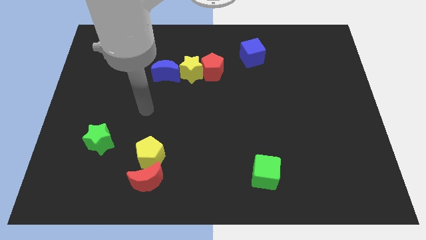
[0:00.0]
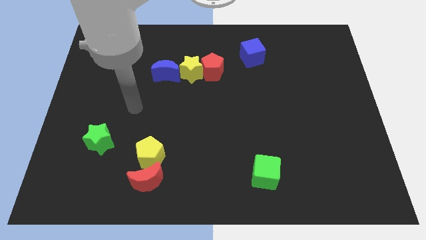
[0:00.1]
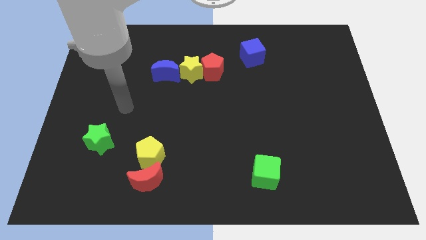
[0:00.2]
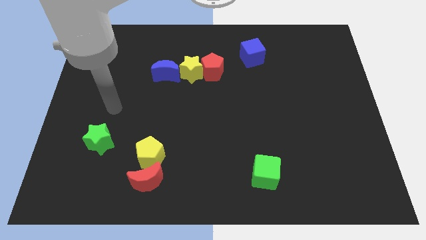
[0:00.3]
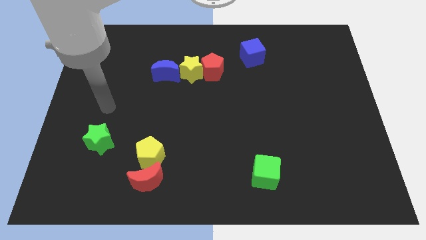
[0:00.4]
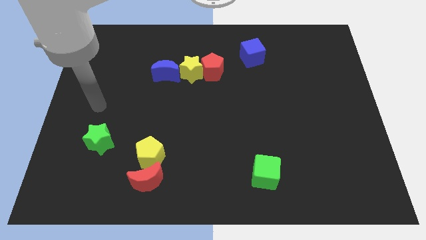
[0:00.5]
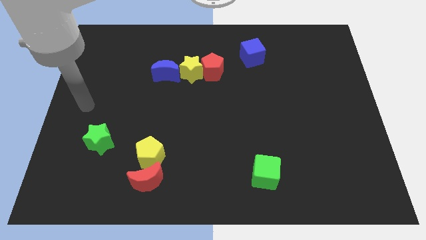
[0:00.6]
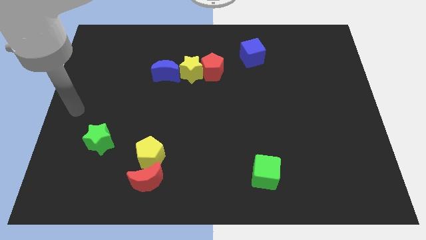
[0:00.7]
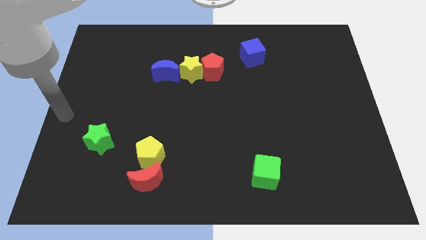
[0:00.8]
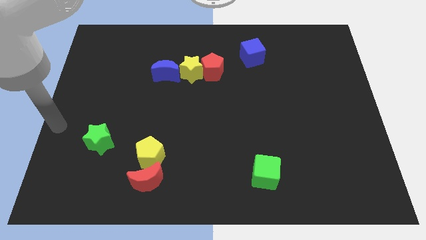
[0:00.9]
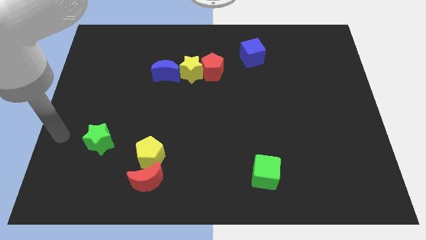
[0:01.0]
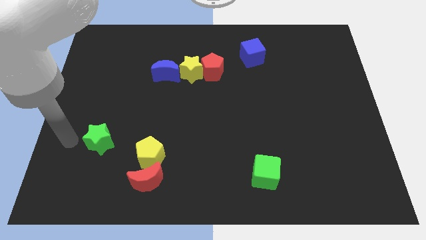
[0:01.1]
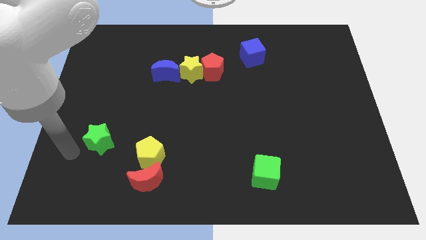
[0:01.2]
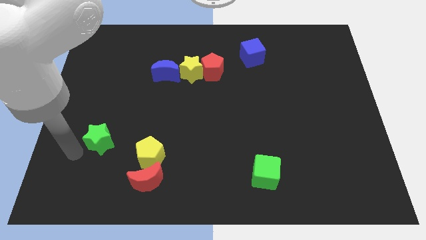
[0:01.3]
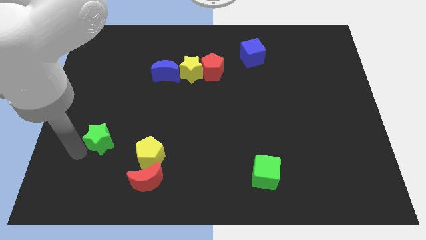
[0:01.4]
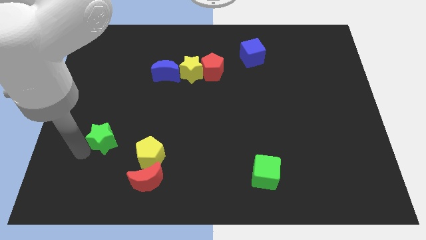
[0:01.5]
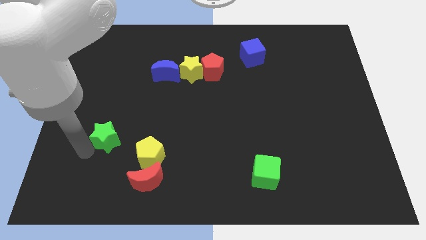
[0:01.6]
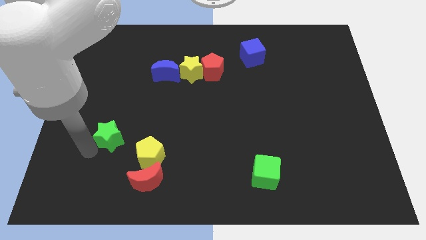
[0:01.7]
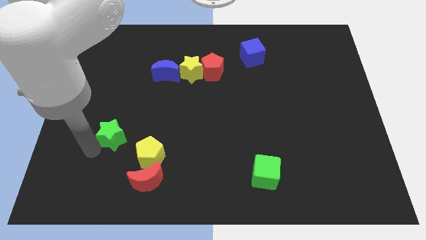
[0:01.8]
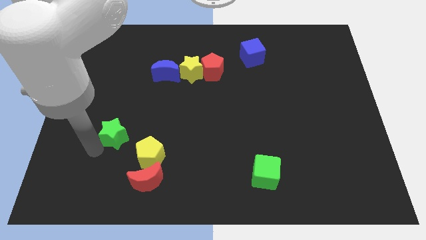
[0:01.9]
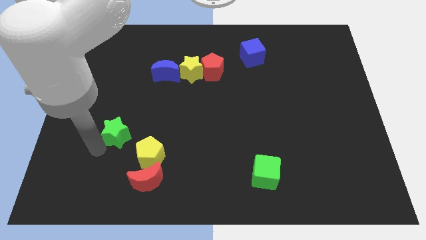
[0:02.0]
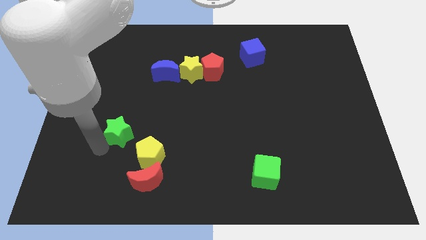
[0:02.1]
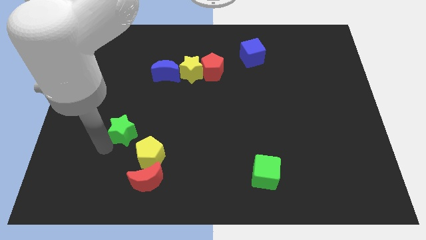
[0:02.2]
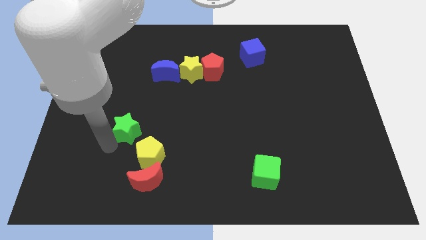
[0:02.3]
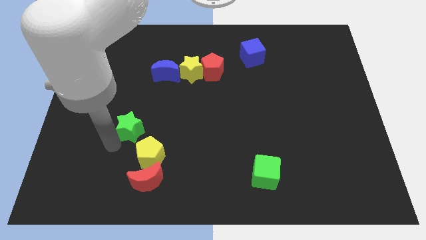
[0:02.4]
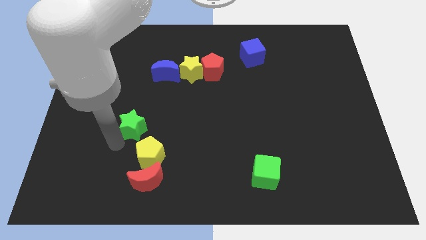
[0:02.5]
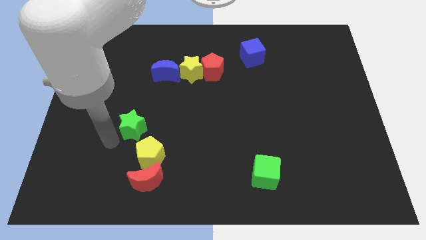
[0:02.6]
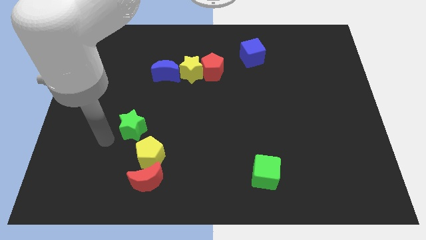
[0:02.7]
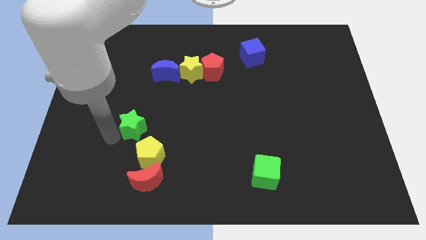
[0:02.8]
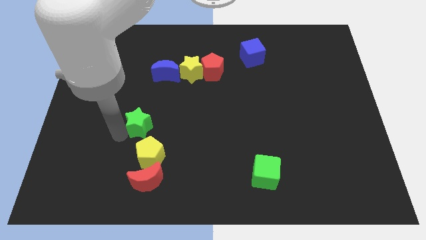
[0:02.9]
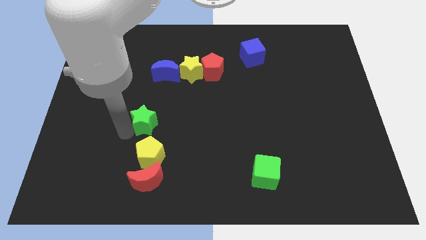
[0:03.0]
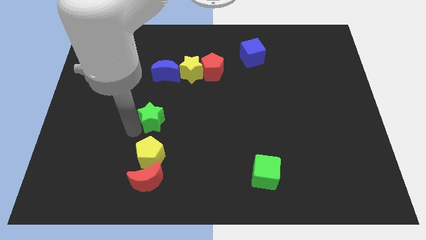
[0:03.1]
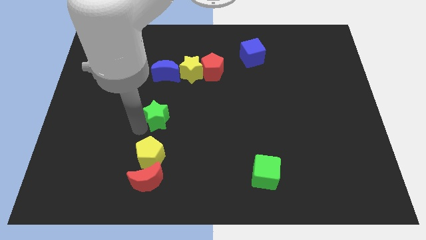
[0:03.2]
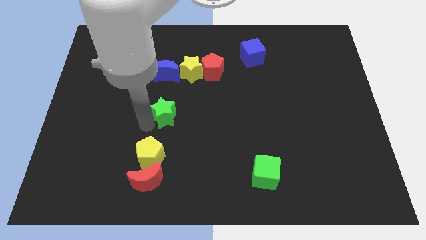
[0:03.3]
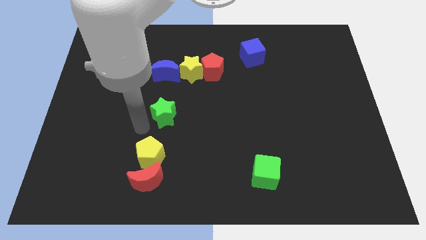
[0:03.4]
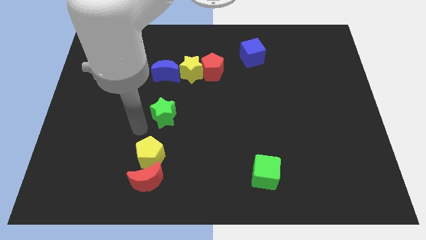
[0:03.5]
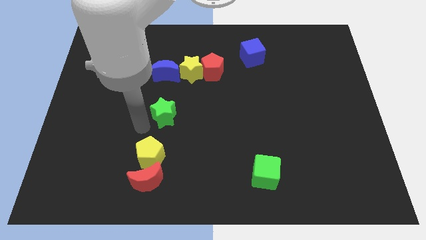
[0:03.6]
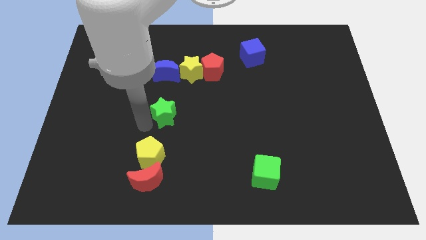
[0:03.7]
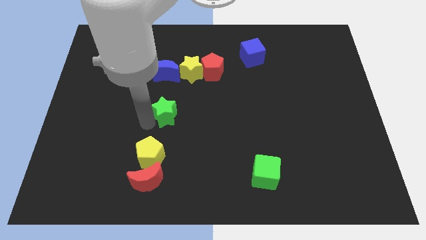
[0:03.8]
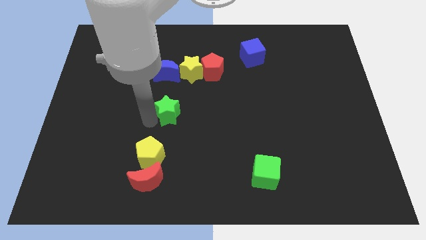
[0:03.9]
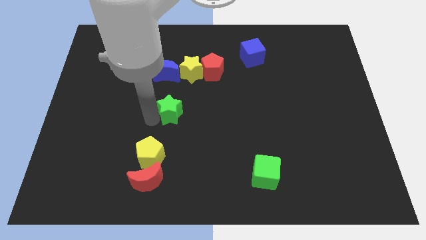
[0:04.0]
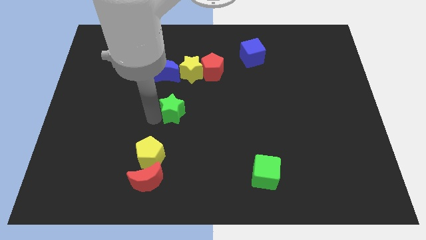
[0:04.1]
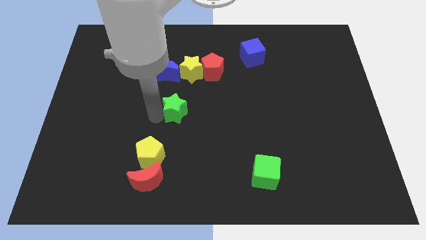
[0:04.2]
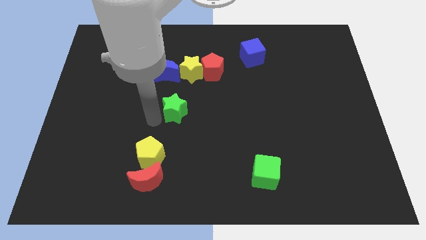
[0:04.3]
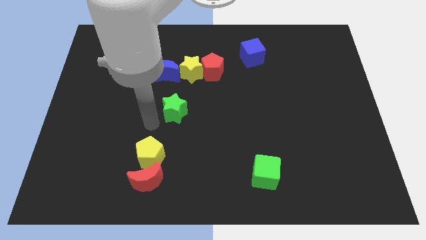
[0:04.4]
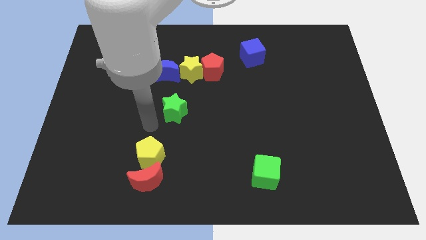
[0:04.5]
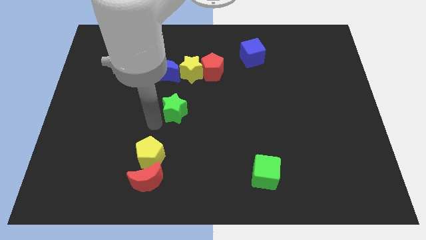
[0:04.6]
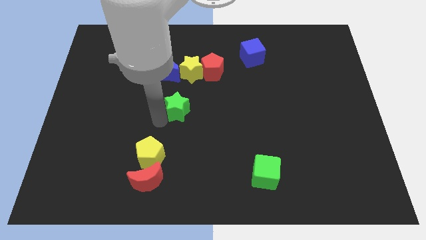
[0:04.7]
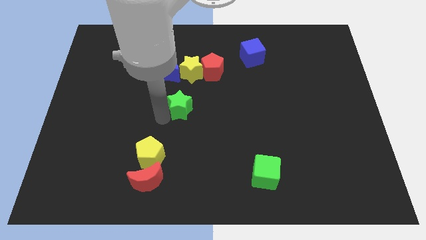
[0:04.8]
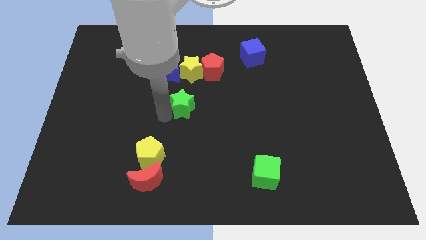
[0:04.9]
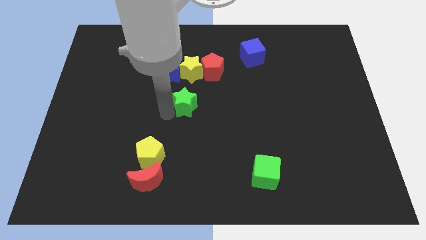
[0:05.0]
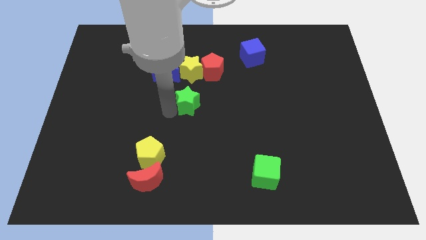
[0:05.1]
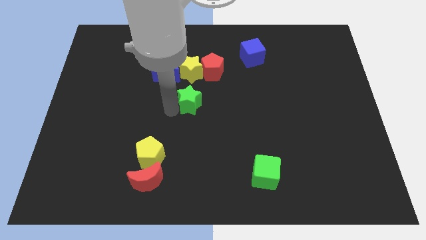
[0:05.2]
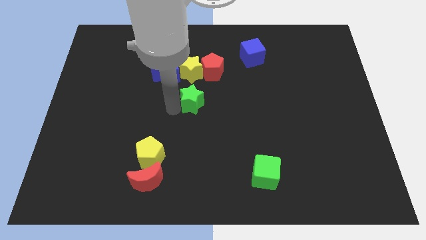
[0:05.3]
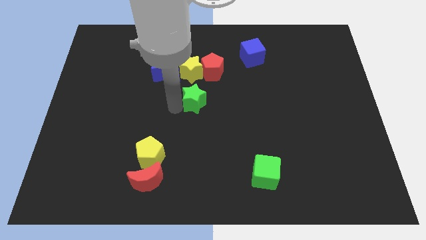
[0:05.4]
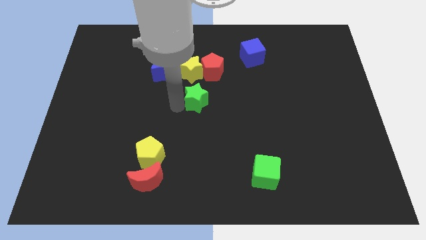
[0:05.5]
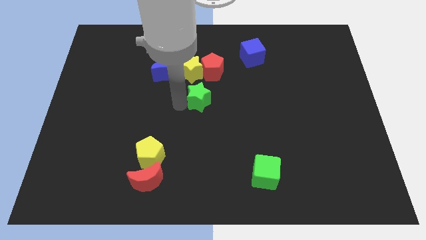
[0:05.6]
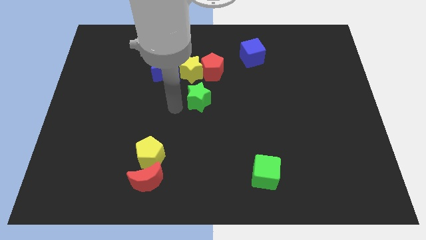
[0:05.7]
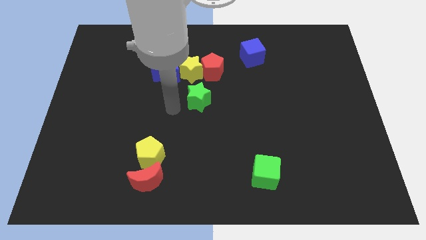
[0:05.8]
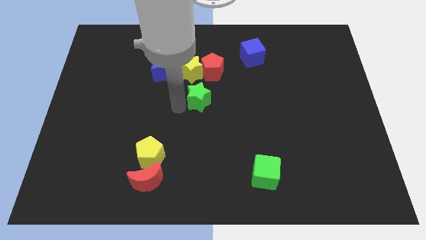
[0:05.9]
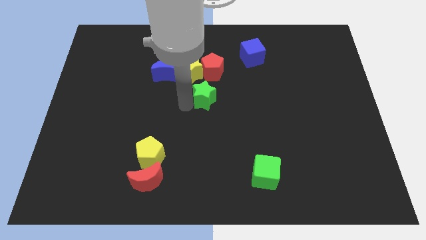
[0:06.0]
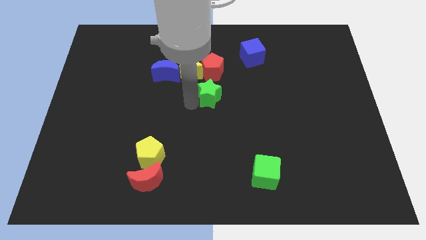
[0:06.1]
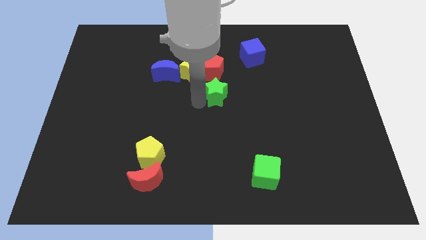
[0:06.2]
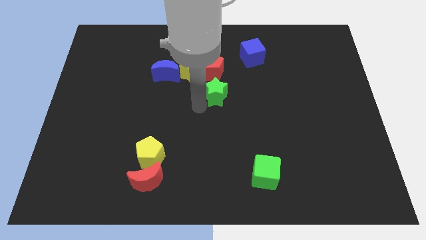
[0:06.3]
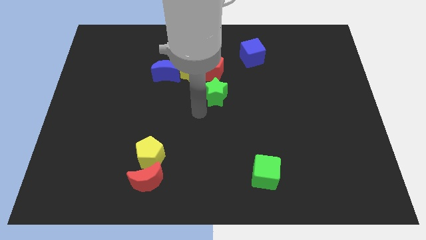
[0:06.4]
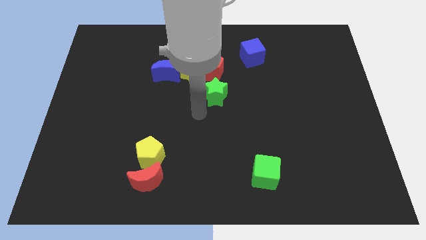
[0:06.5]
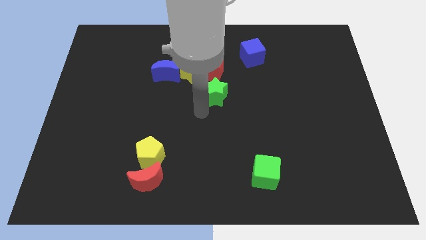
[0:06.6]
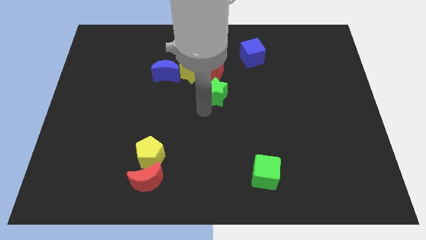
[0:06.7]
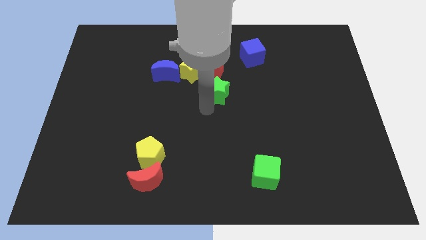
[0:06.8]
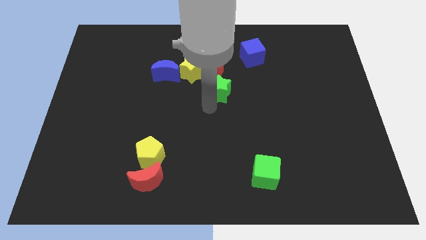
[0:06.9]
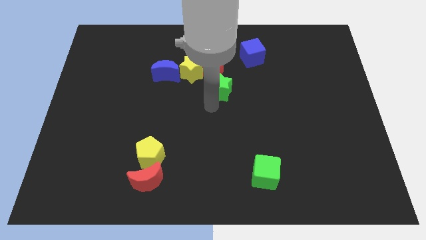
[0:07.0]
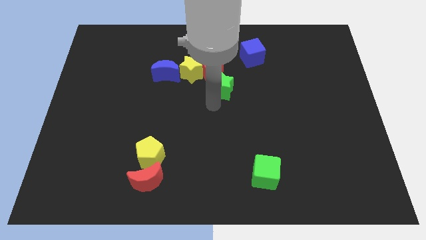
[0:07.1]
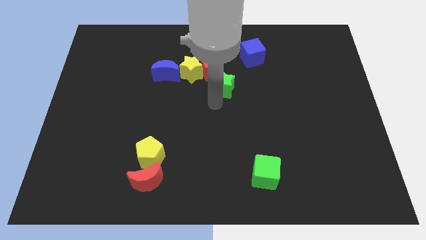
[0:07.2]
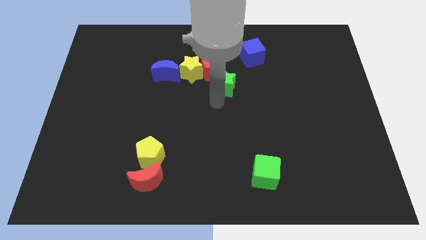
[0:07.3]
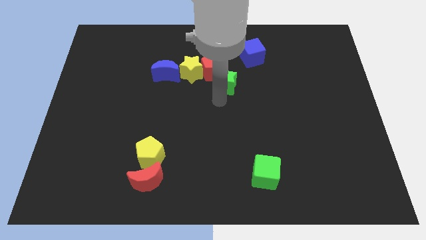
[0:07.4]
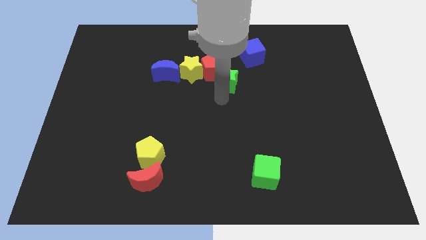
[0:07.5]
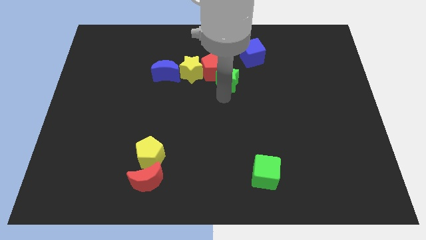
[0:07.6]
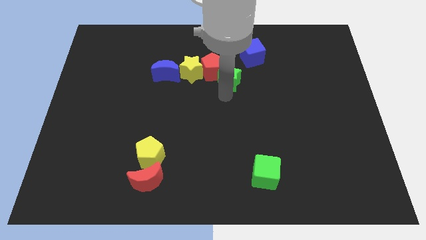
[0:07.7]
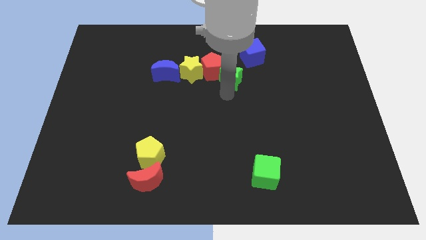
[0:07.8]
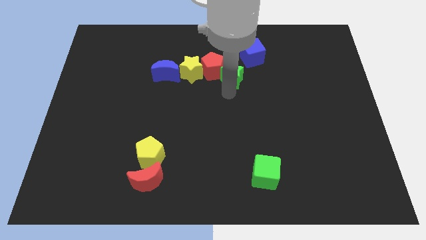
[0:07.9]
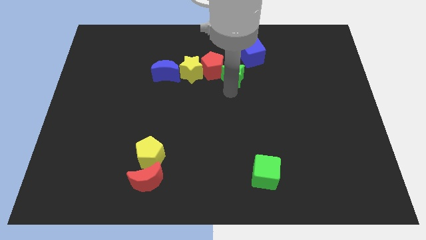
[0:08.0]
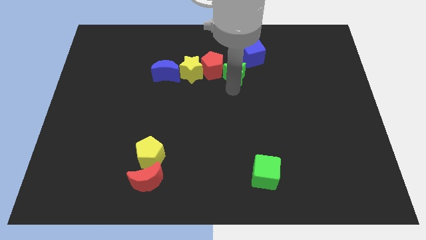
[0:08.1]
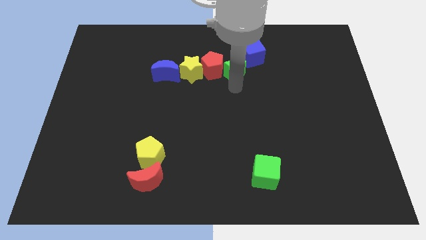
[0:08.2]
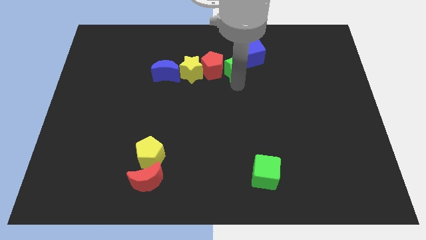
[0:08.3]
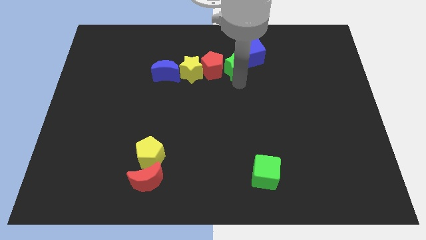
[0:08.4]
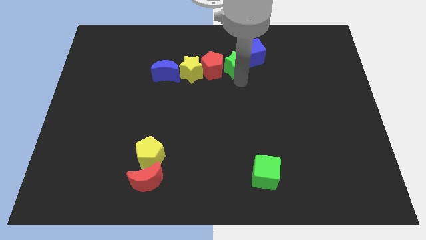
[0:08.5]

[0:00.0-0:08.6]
push the green star to the blue cube
